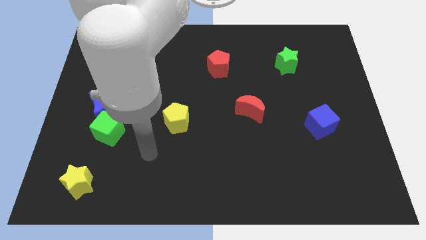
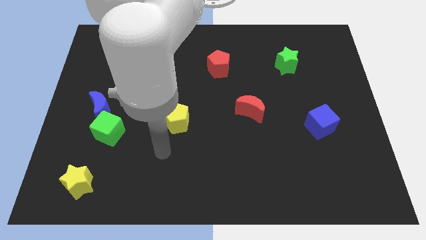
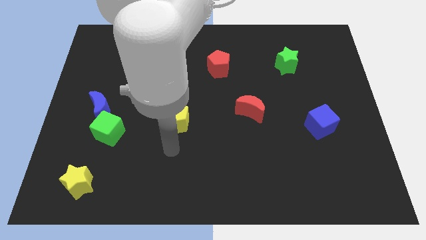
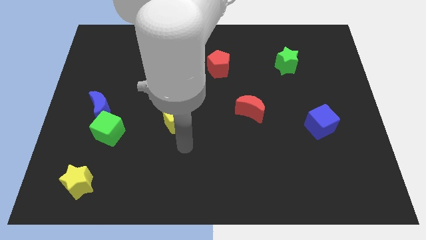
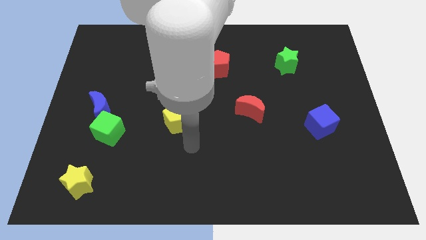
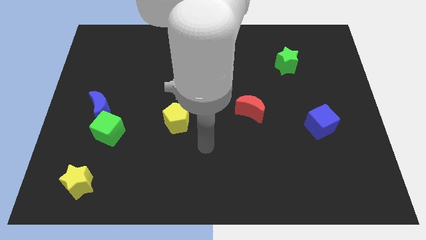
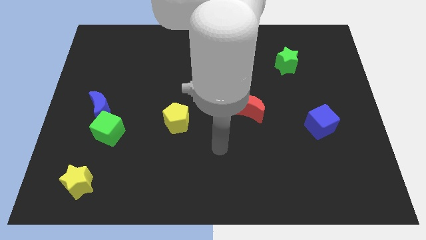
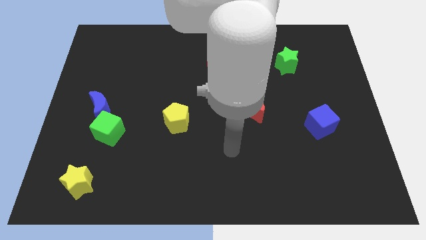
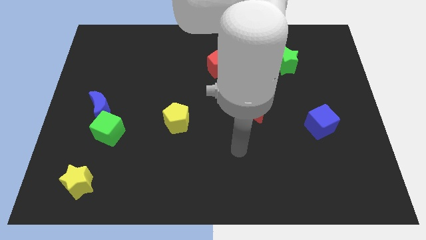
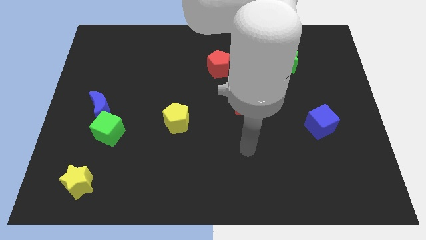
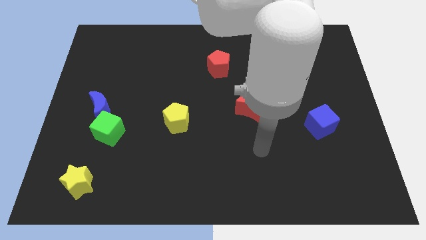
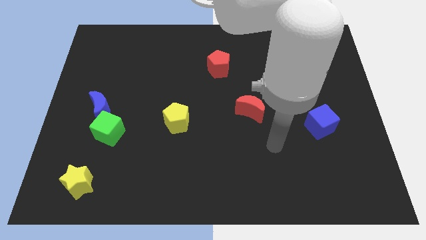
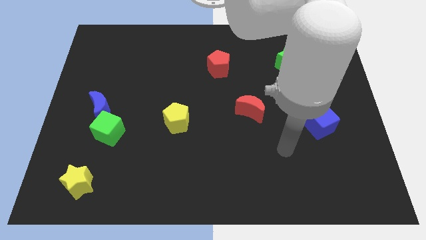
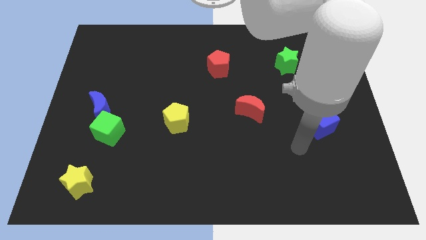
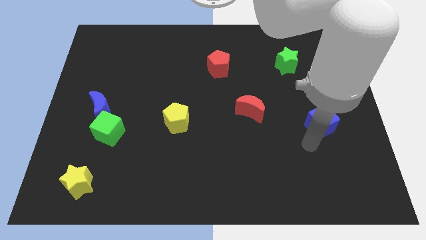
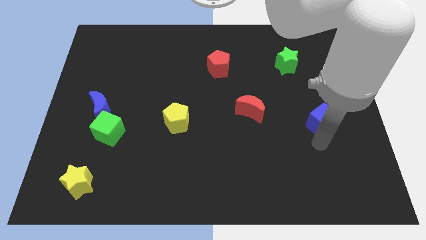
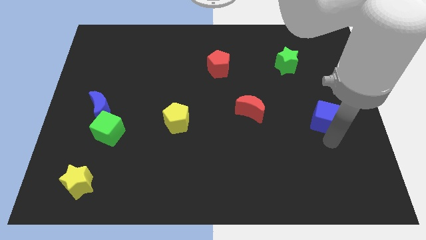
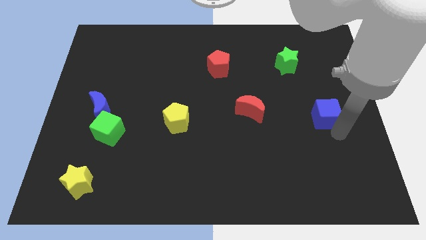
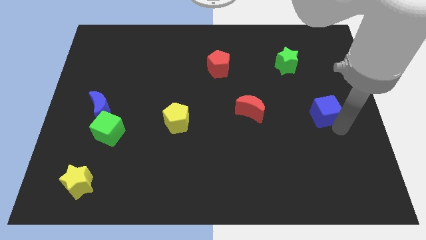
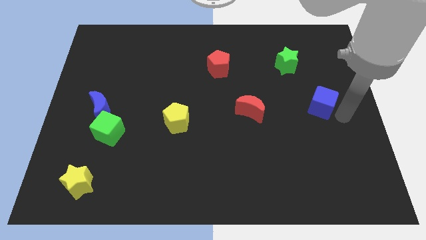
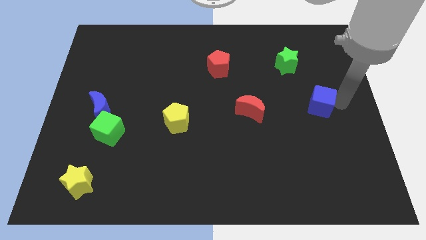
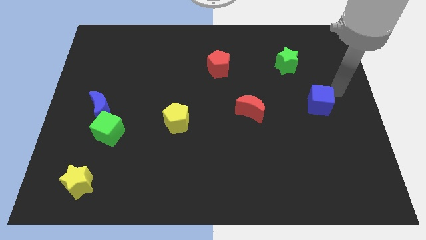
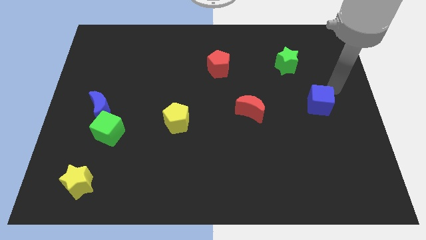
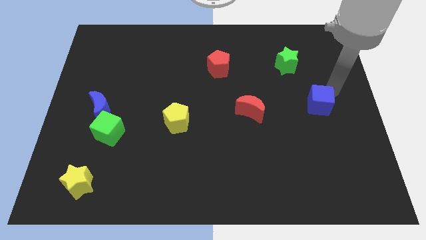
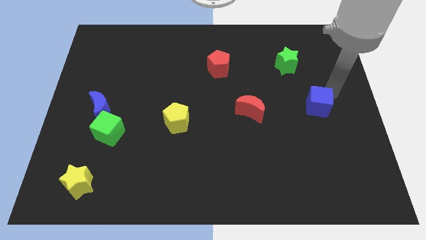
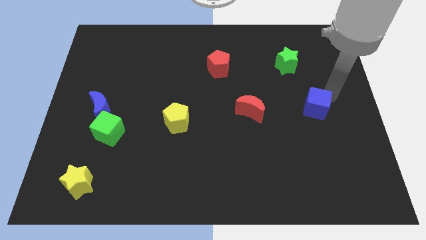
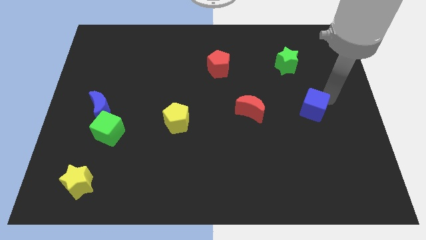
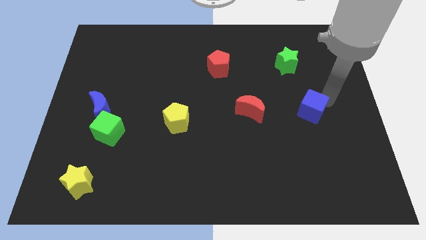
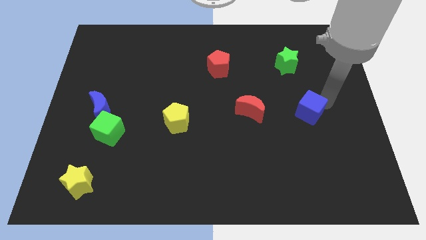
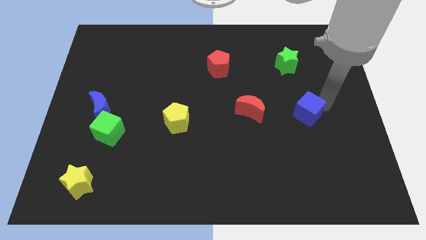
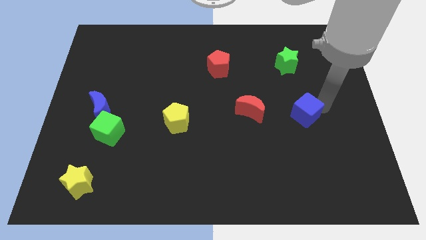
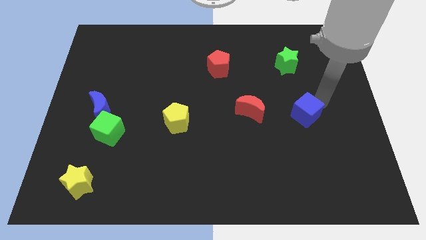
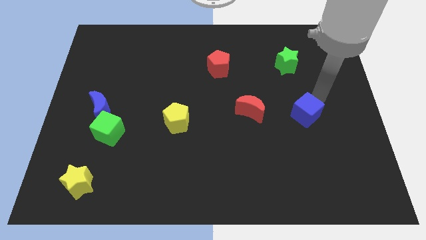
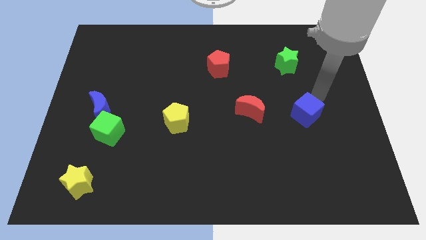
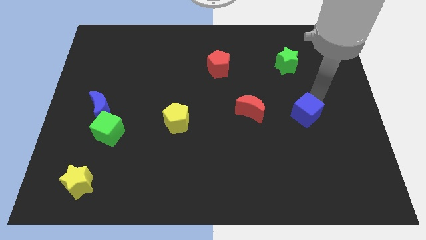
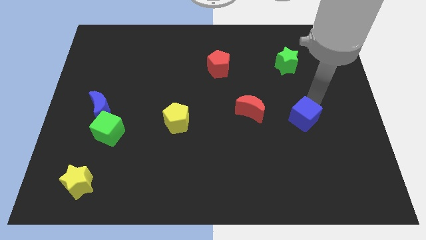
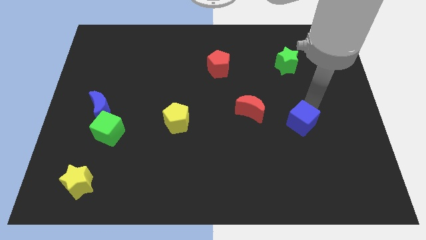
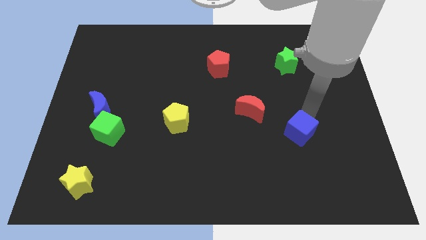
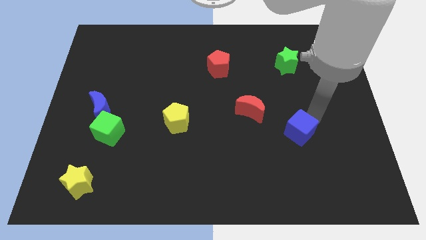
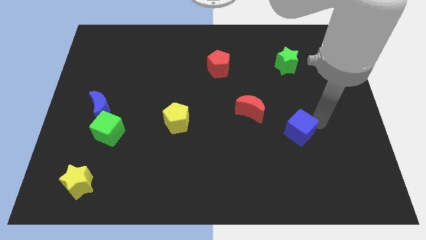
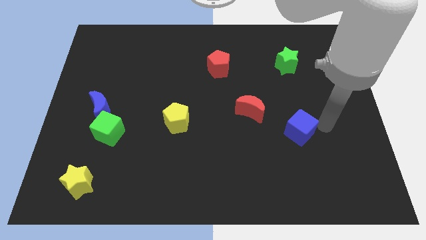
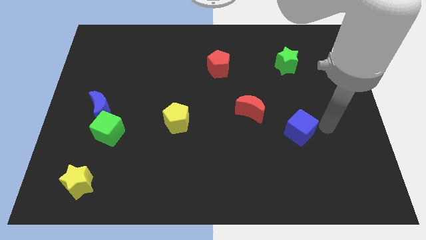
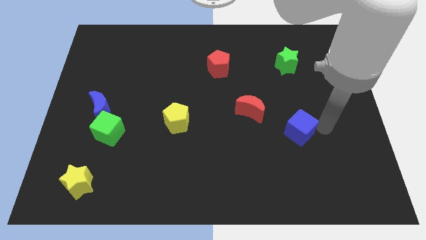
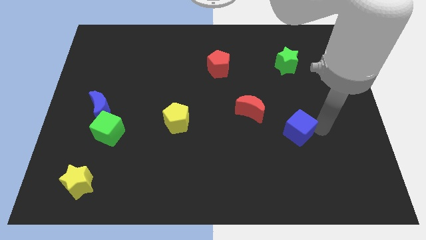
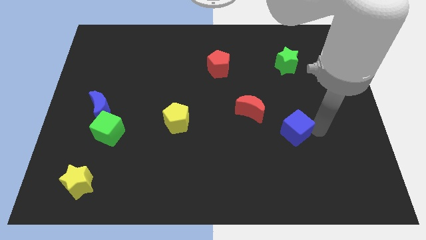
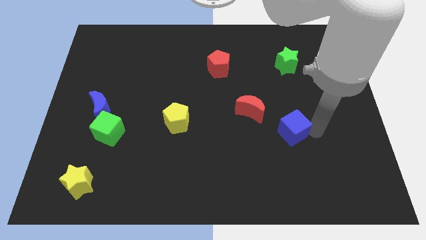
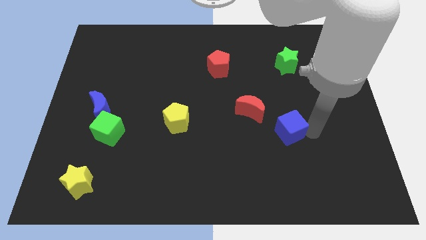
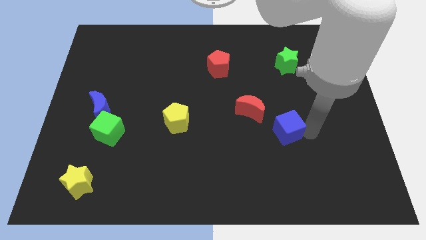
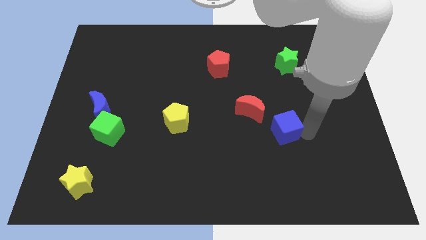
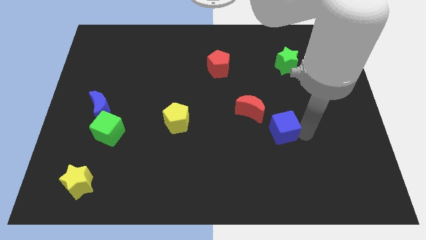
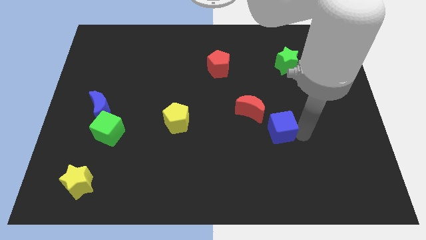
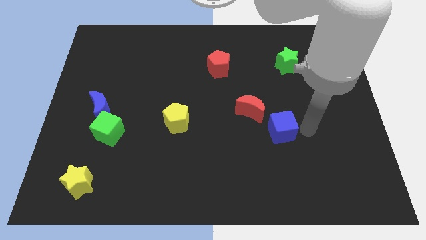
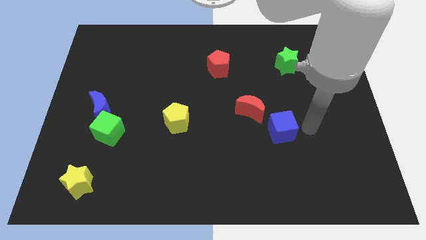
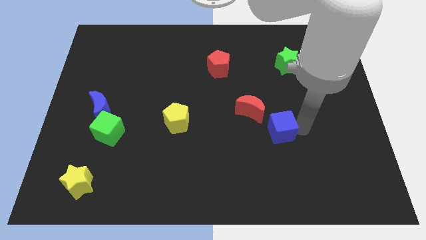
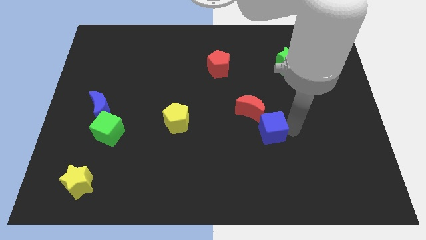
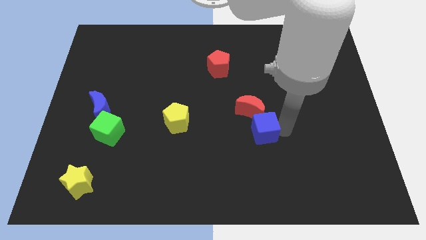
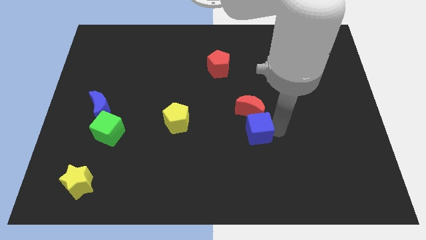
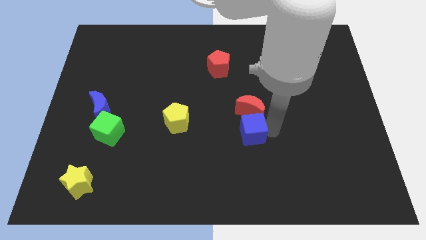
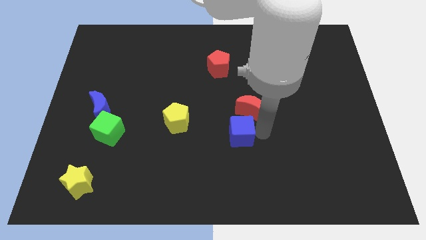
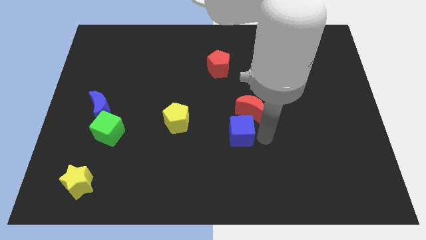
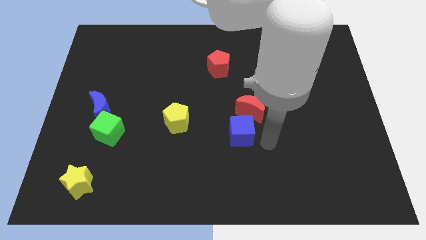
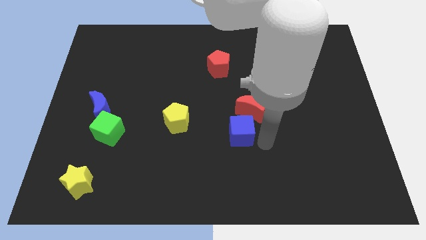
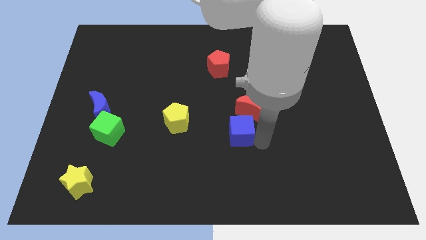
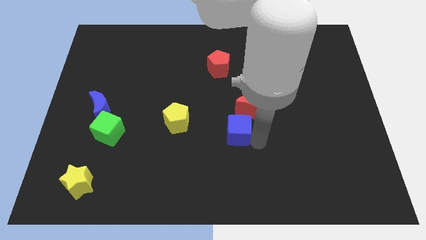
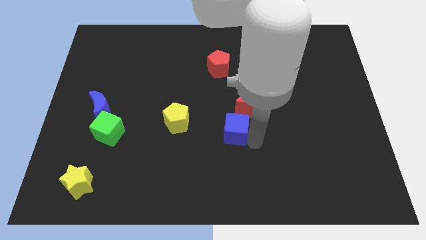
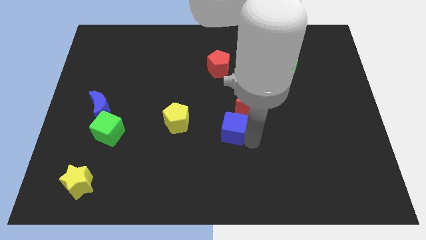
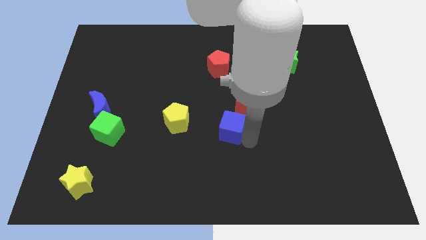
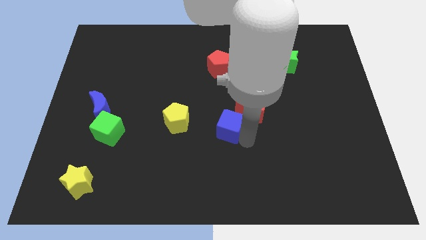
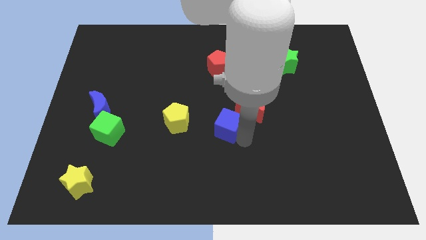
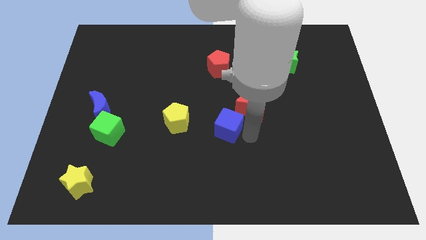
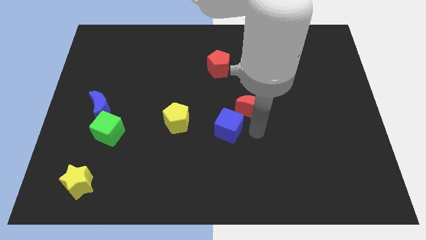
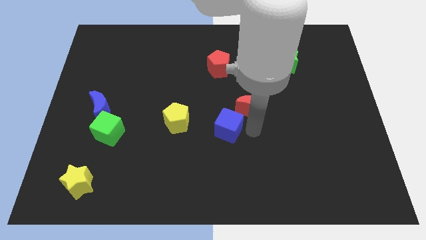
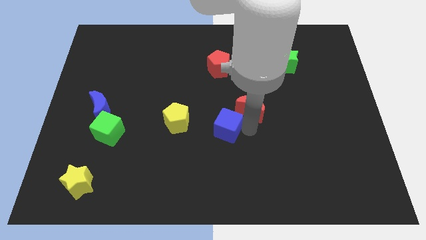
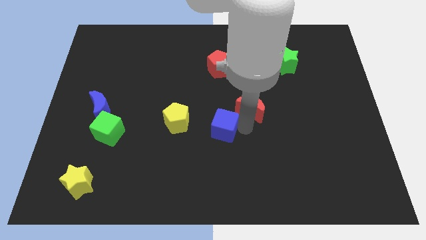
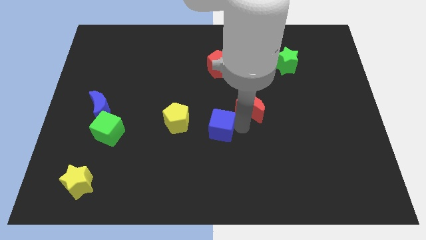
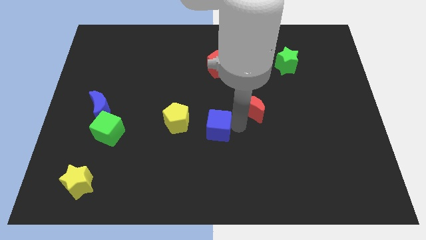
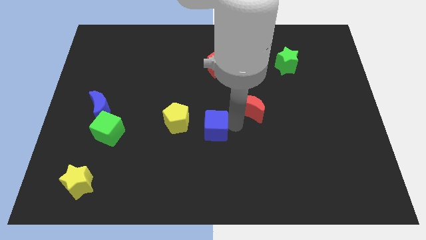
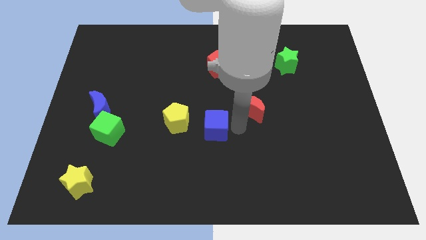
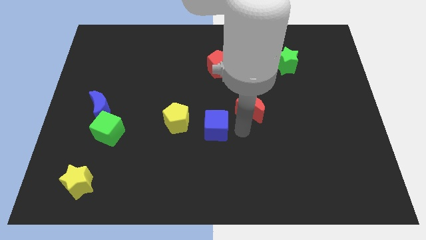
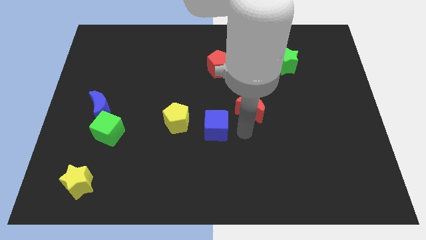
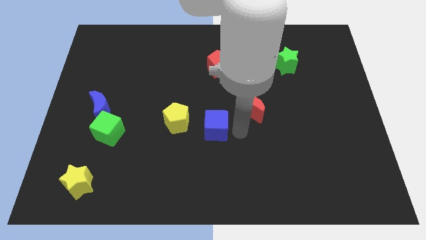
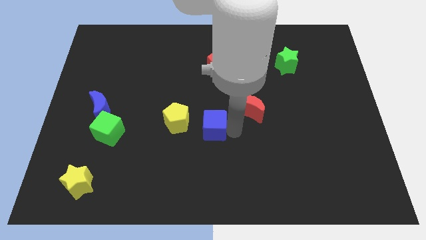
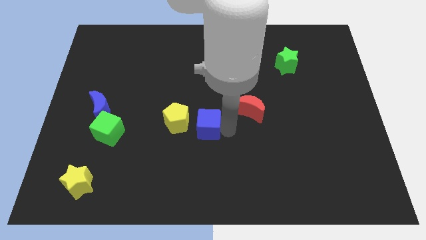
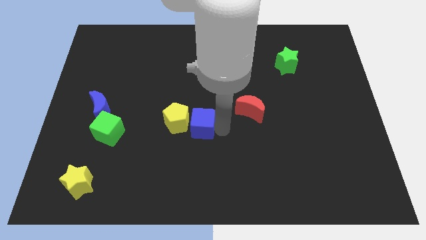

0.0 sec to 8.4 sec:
slide the blue cube close to the yellow pentagon
